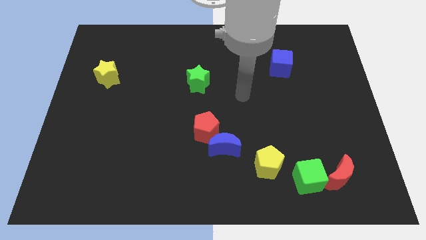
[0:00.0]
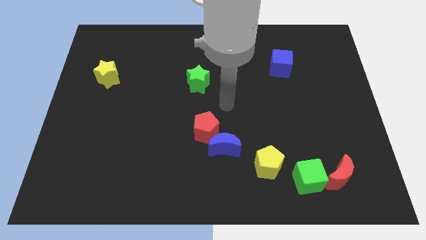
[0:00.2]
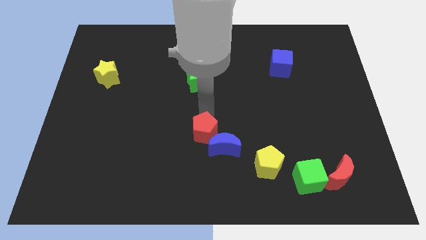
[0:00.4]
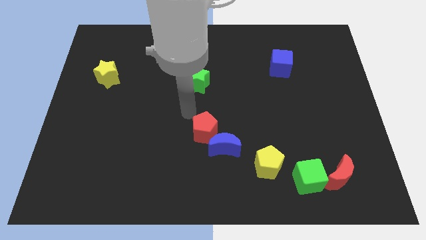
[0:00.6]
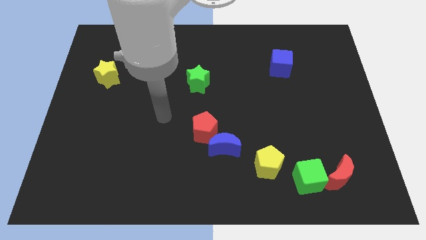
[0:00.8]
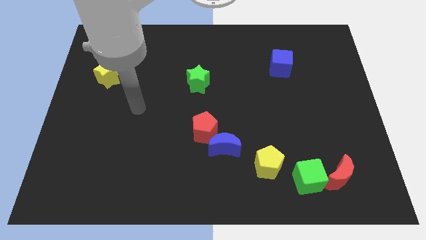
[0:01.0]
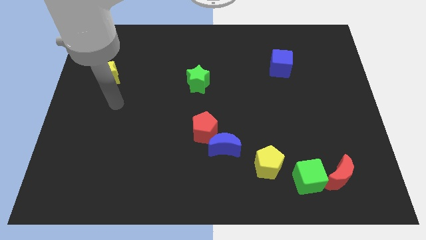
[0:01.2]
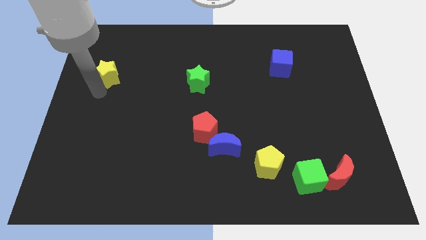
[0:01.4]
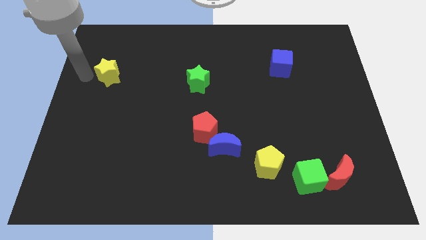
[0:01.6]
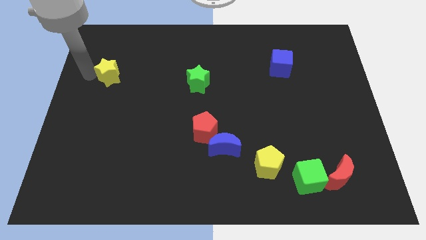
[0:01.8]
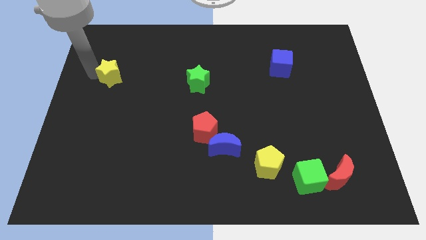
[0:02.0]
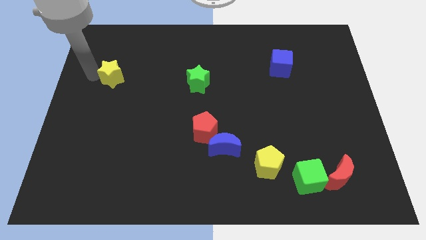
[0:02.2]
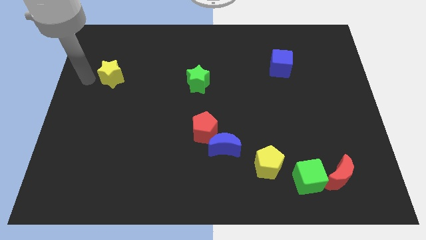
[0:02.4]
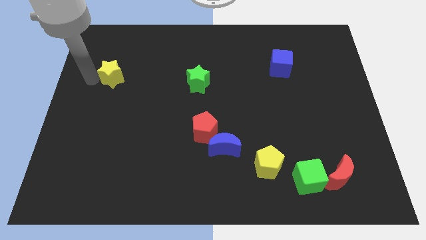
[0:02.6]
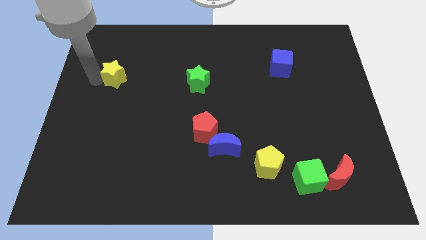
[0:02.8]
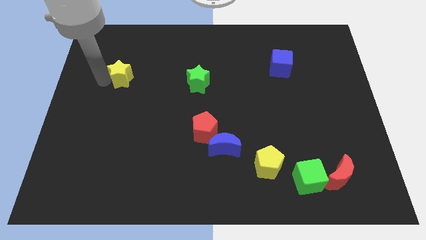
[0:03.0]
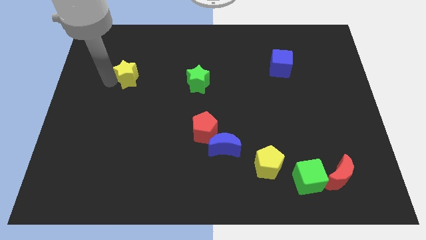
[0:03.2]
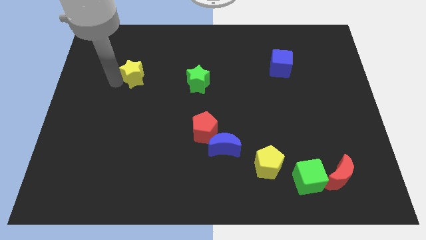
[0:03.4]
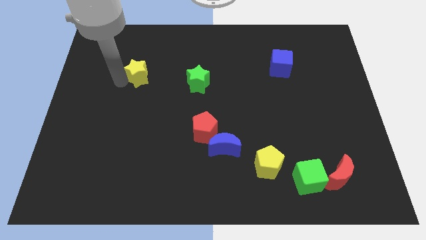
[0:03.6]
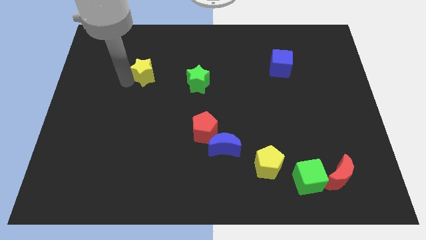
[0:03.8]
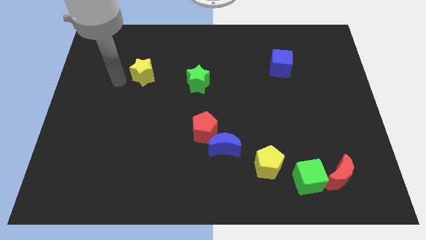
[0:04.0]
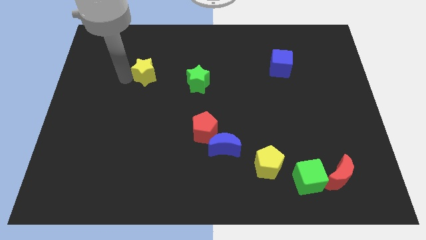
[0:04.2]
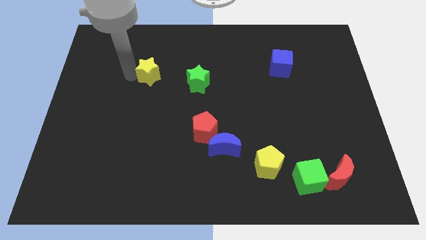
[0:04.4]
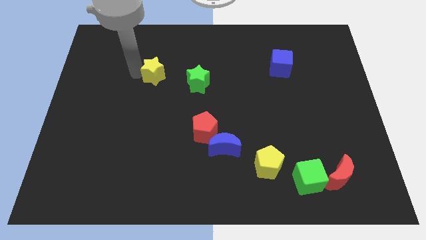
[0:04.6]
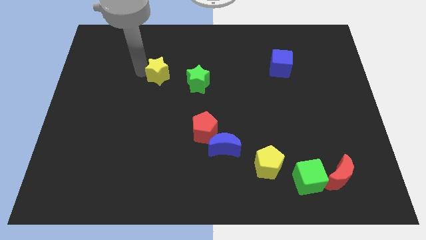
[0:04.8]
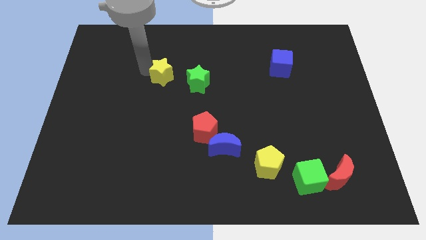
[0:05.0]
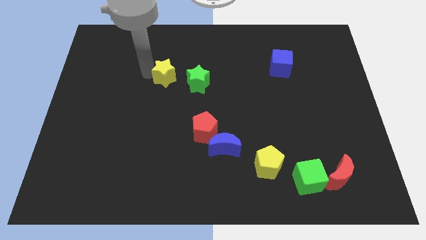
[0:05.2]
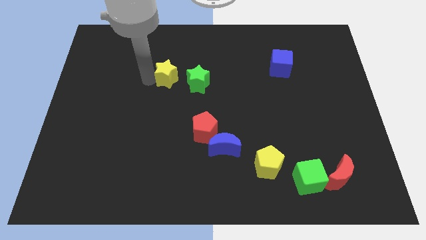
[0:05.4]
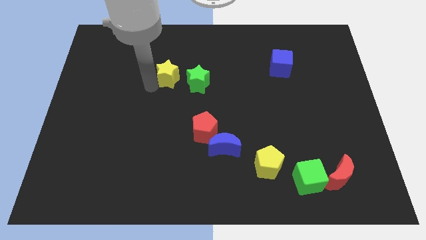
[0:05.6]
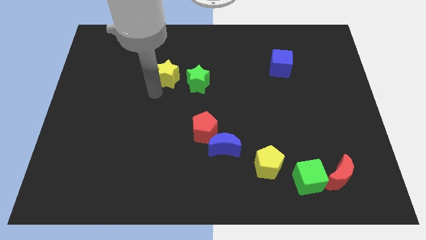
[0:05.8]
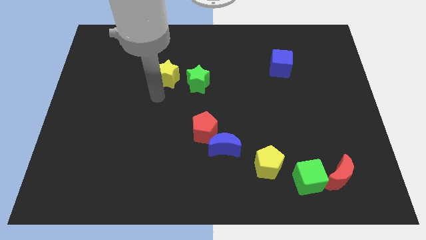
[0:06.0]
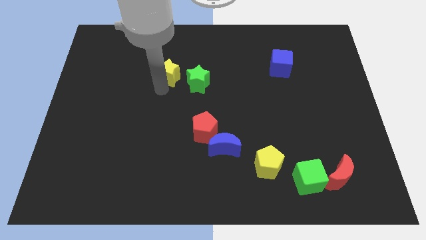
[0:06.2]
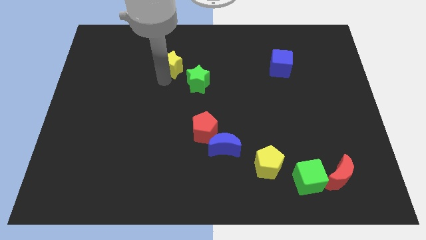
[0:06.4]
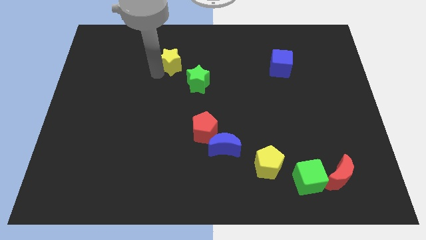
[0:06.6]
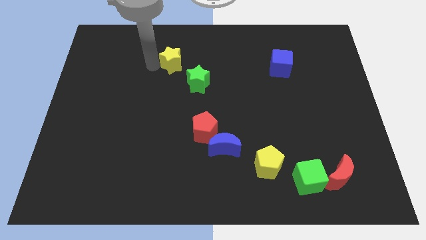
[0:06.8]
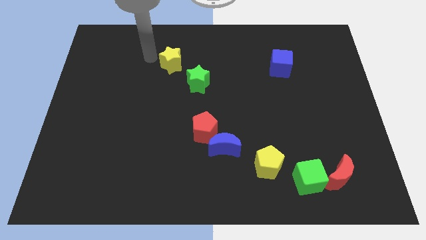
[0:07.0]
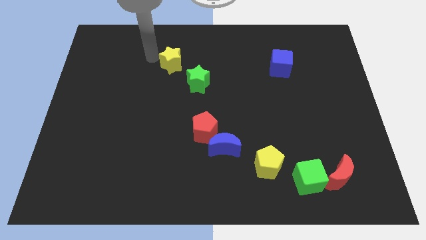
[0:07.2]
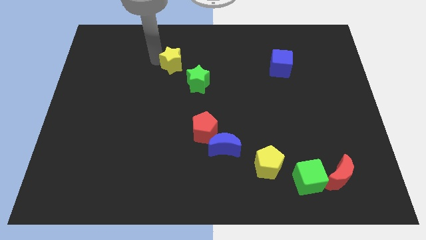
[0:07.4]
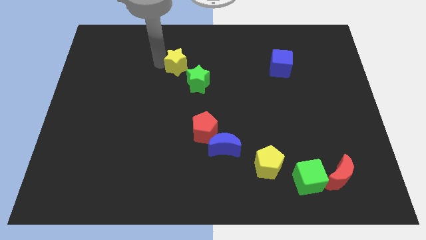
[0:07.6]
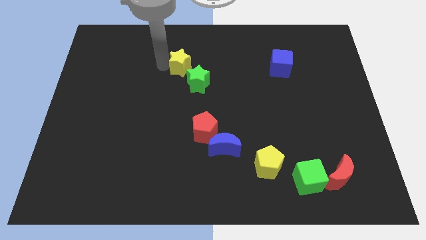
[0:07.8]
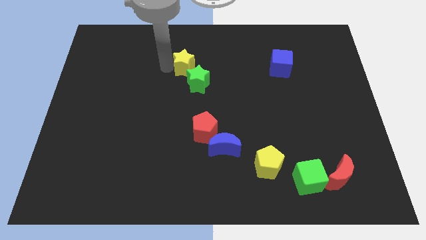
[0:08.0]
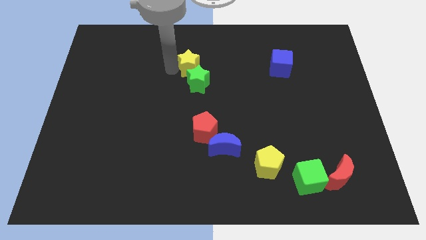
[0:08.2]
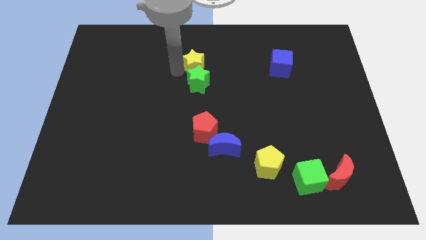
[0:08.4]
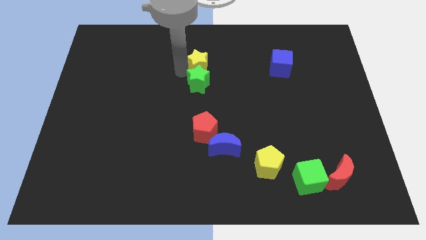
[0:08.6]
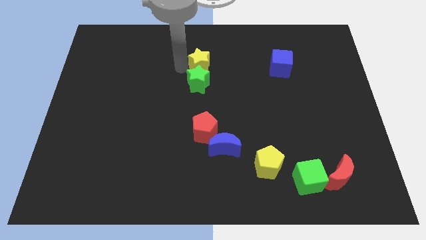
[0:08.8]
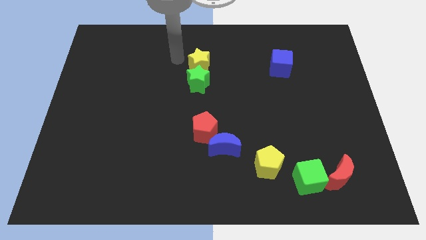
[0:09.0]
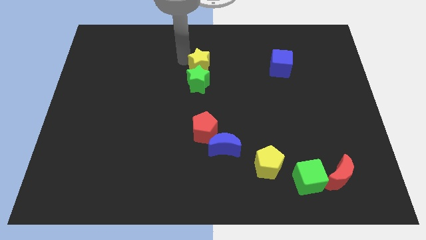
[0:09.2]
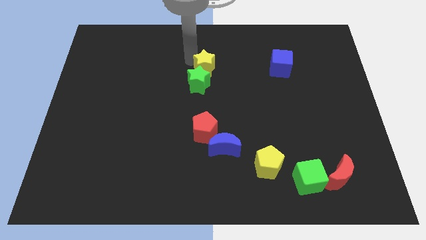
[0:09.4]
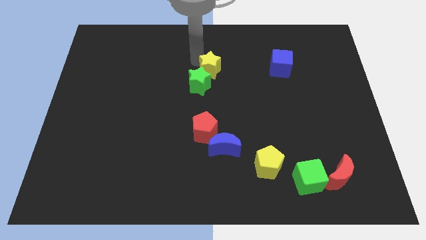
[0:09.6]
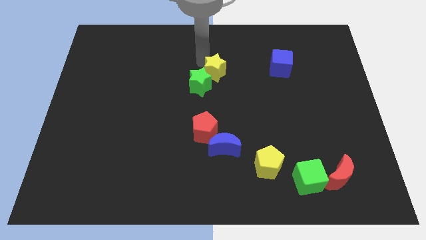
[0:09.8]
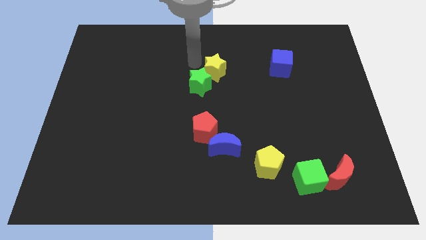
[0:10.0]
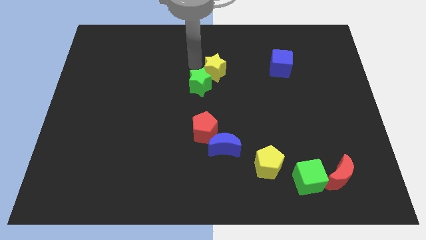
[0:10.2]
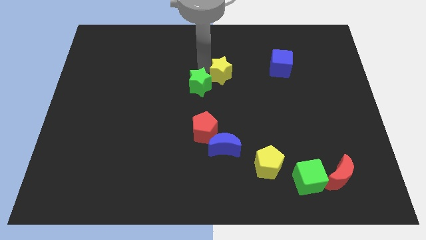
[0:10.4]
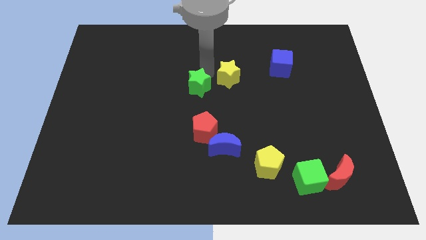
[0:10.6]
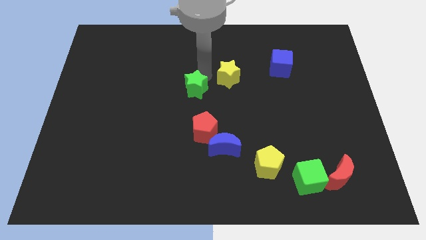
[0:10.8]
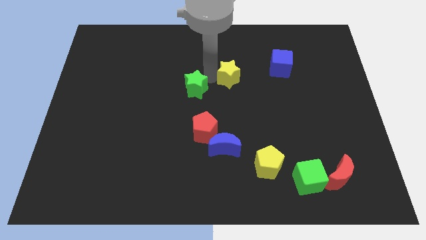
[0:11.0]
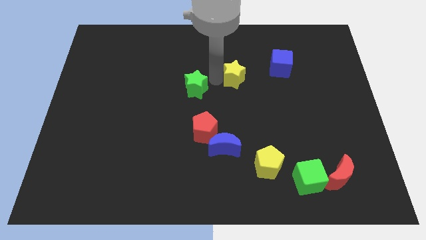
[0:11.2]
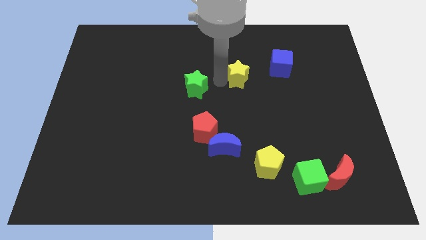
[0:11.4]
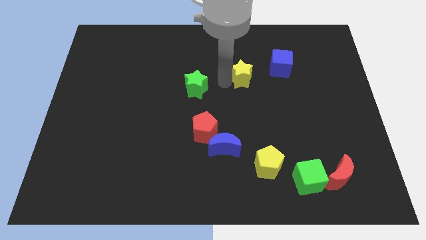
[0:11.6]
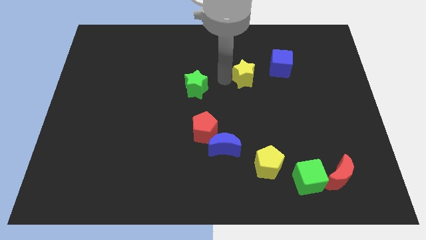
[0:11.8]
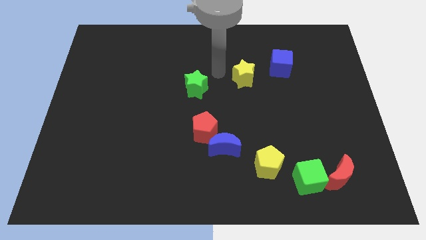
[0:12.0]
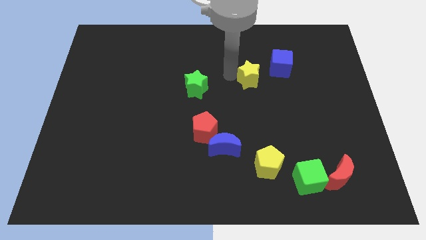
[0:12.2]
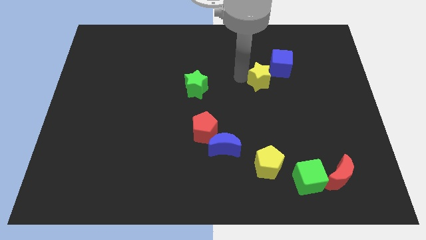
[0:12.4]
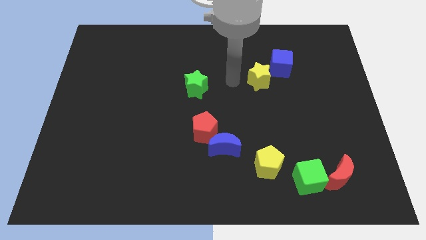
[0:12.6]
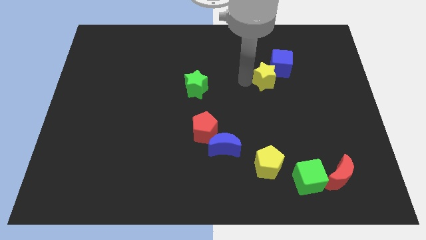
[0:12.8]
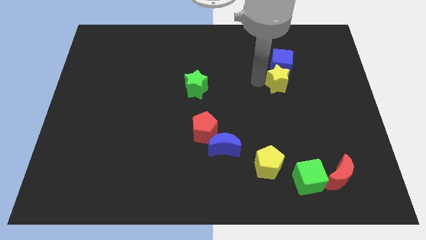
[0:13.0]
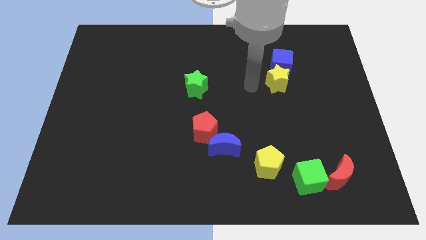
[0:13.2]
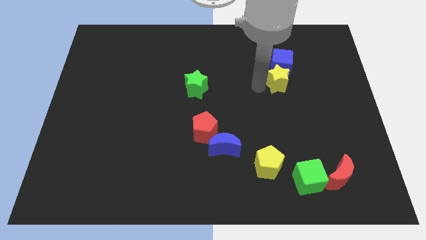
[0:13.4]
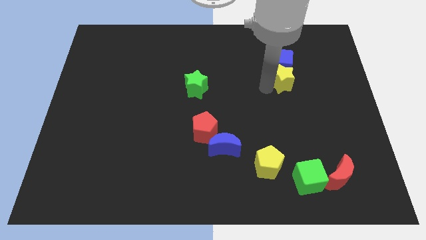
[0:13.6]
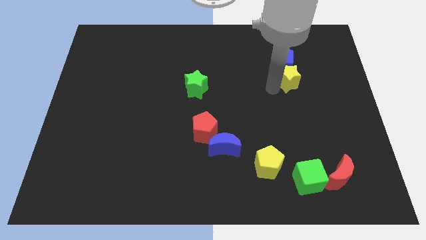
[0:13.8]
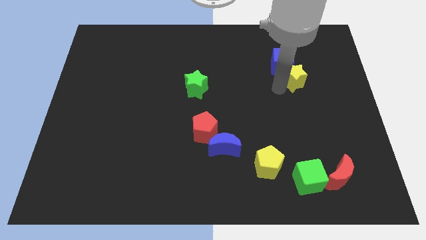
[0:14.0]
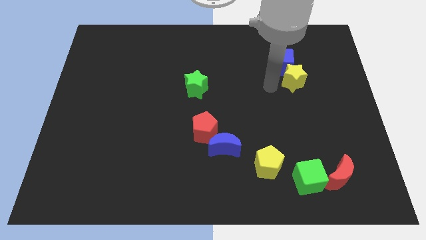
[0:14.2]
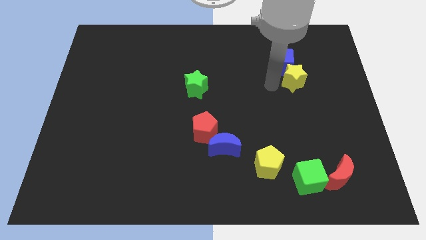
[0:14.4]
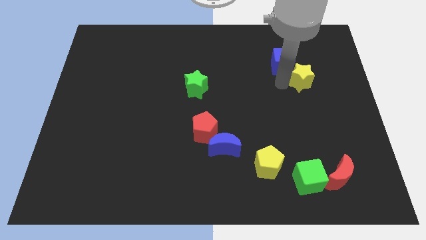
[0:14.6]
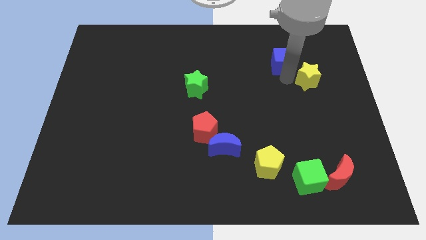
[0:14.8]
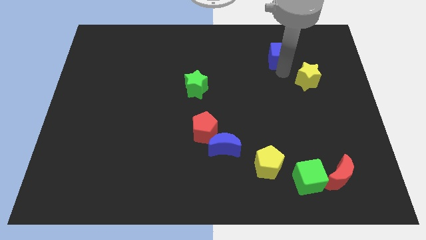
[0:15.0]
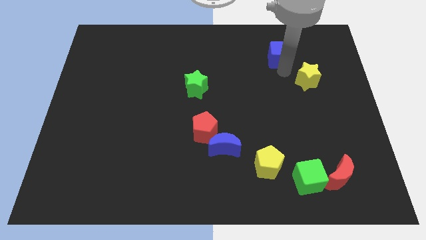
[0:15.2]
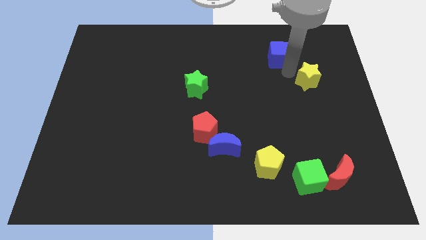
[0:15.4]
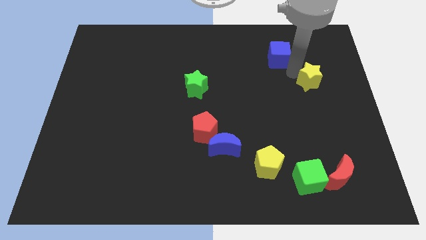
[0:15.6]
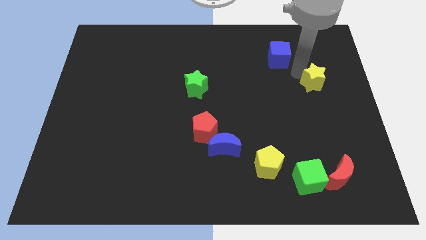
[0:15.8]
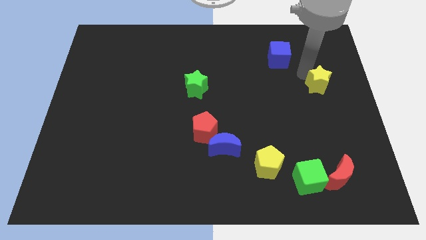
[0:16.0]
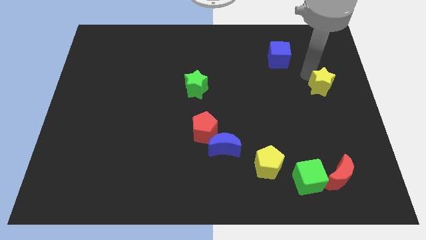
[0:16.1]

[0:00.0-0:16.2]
slide the yellow star to the right side of the board

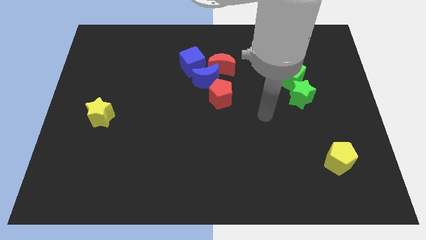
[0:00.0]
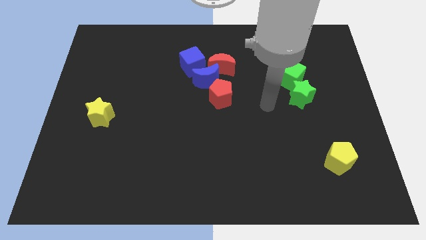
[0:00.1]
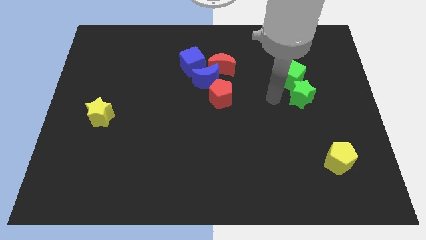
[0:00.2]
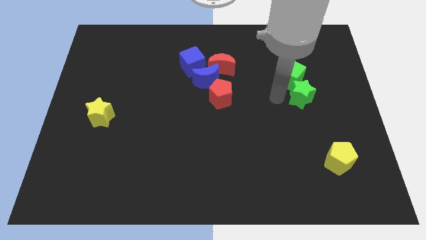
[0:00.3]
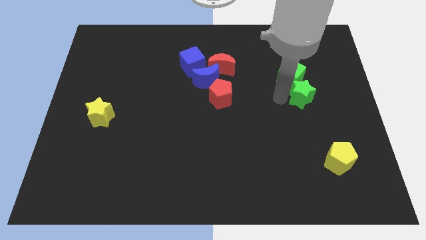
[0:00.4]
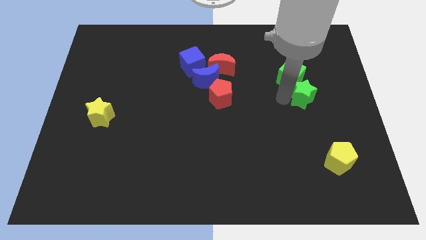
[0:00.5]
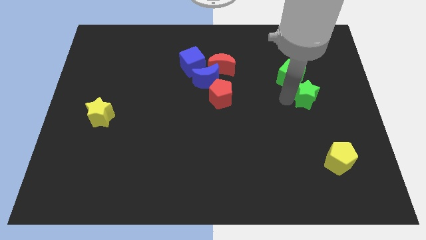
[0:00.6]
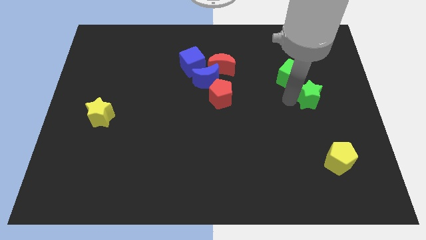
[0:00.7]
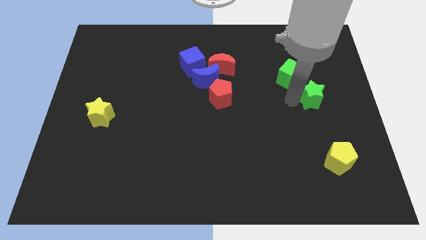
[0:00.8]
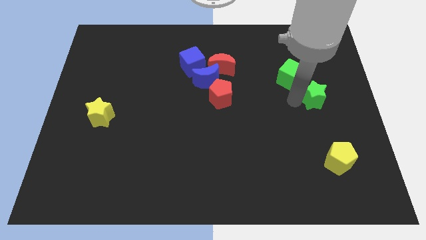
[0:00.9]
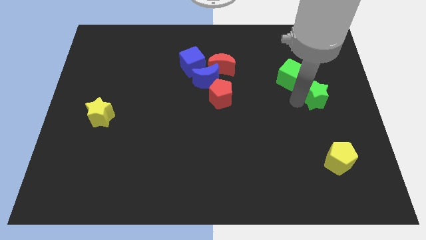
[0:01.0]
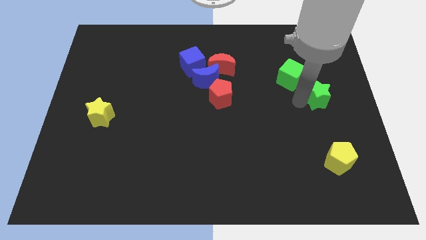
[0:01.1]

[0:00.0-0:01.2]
push the green star to the right side
